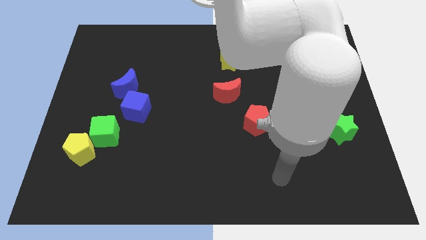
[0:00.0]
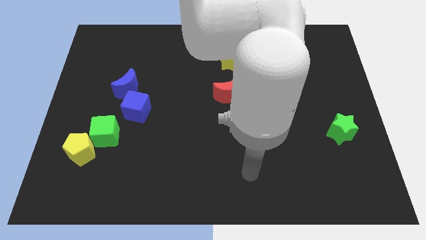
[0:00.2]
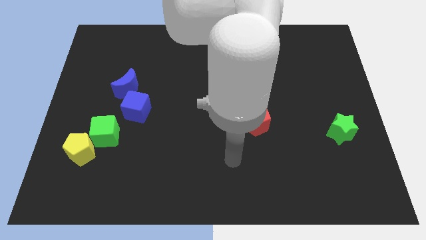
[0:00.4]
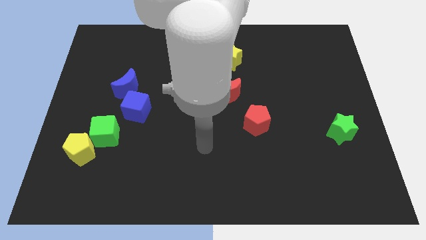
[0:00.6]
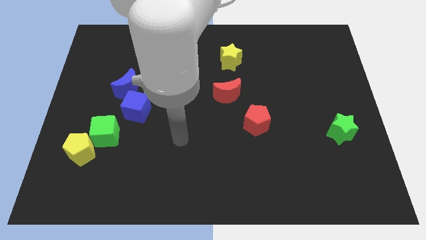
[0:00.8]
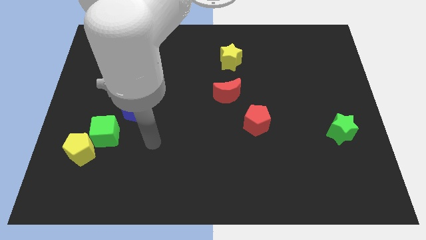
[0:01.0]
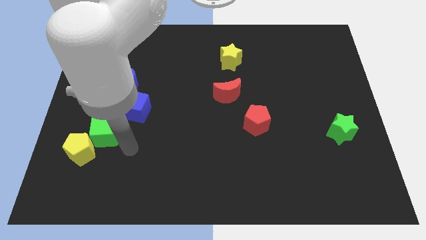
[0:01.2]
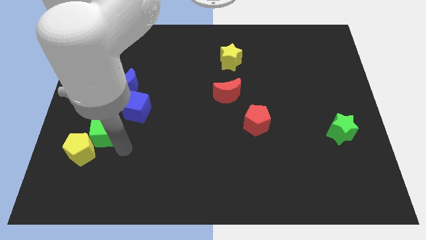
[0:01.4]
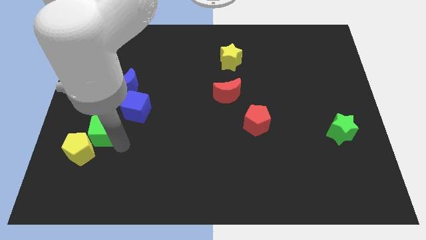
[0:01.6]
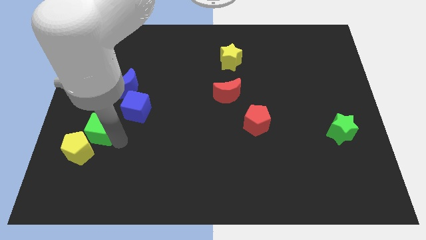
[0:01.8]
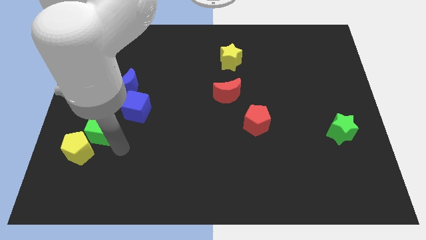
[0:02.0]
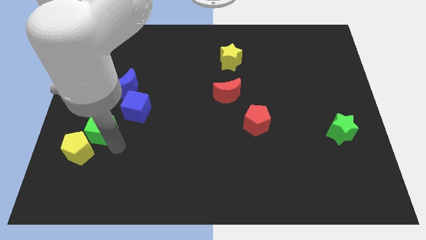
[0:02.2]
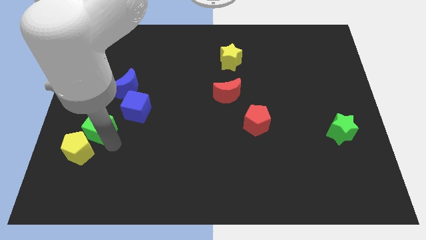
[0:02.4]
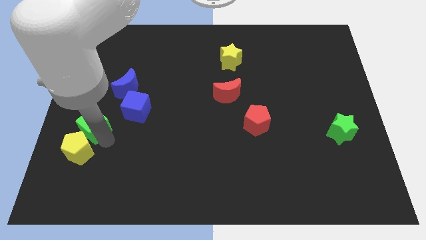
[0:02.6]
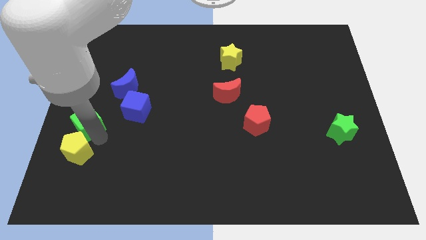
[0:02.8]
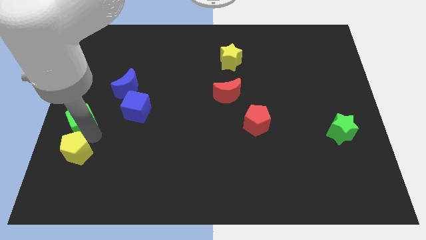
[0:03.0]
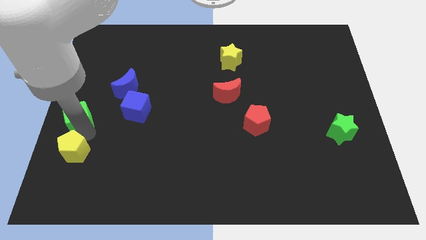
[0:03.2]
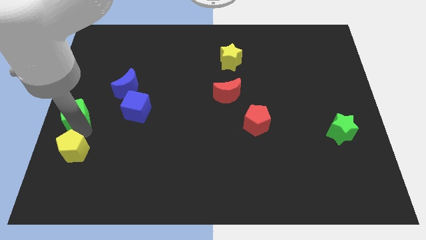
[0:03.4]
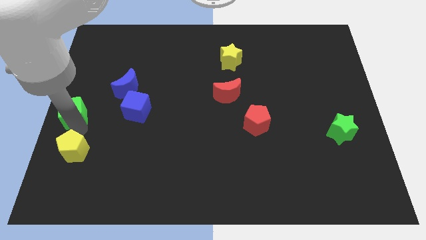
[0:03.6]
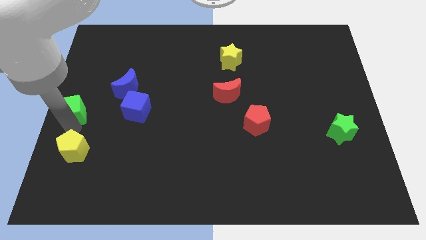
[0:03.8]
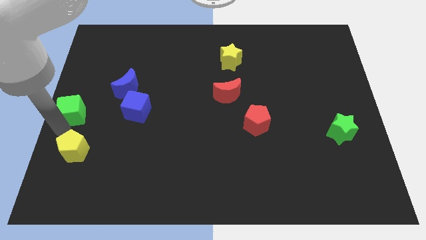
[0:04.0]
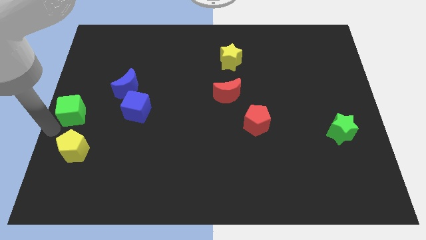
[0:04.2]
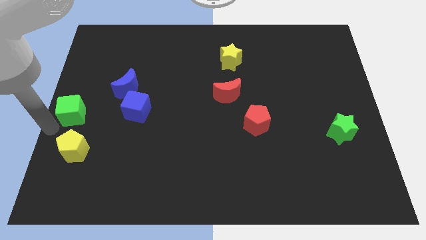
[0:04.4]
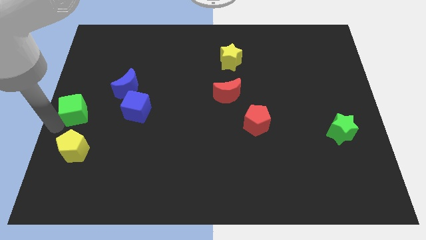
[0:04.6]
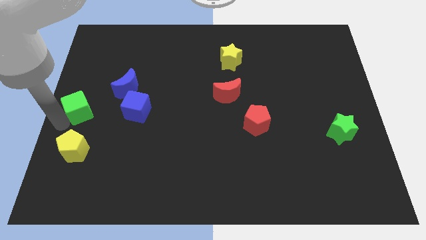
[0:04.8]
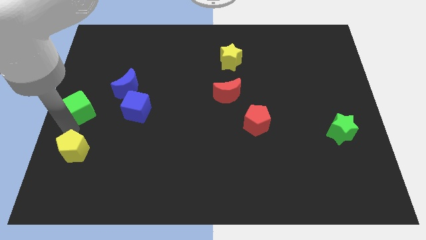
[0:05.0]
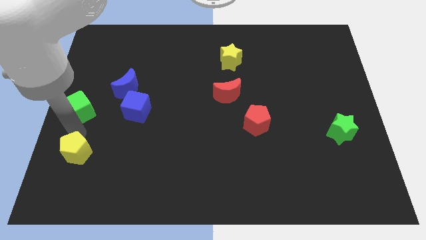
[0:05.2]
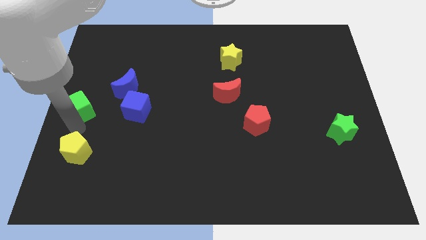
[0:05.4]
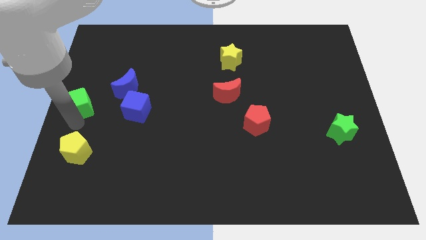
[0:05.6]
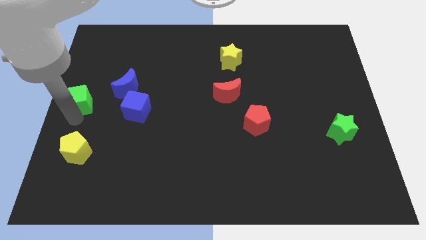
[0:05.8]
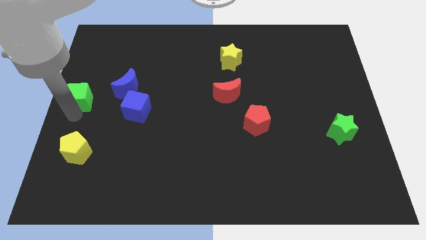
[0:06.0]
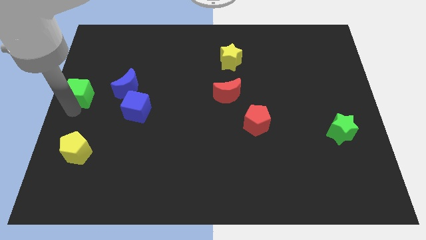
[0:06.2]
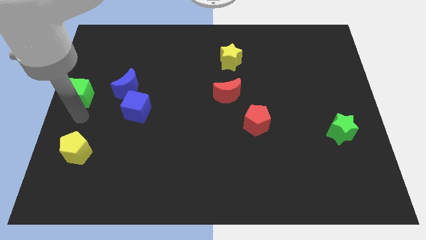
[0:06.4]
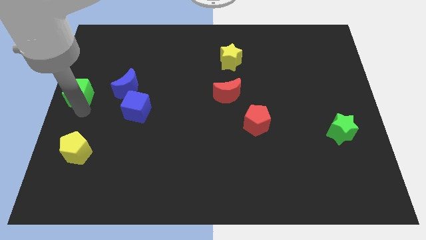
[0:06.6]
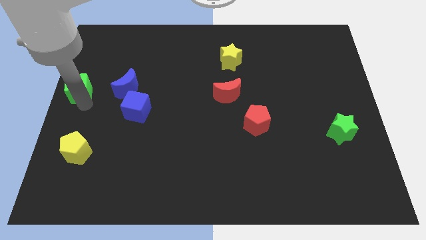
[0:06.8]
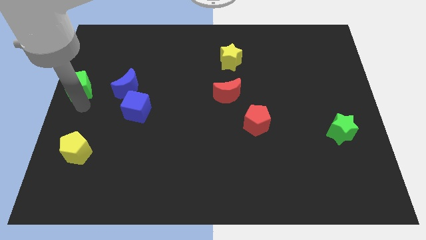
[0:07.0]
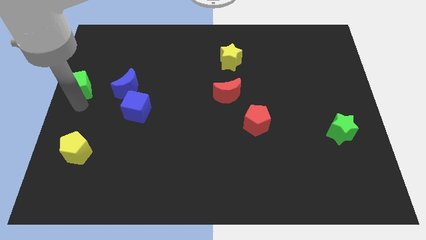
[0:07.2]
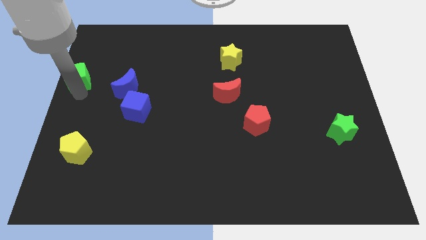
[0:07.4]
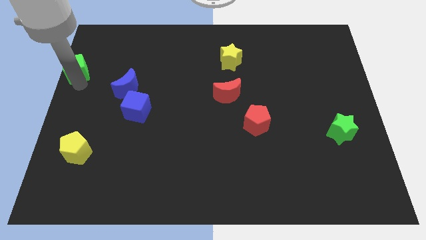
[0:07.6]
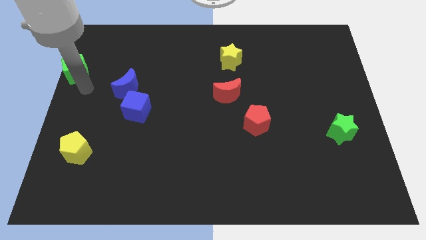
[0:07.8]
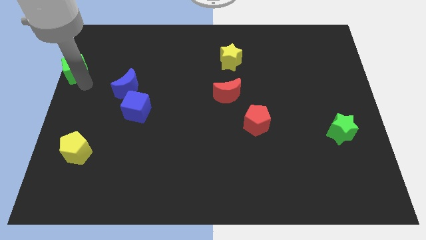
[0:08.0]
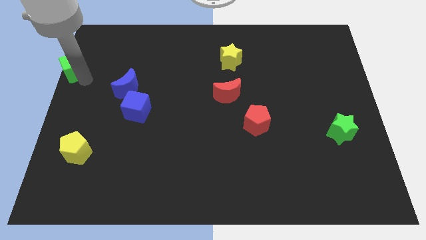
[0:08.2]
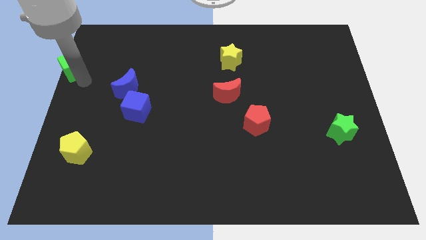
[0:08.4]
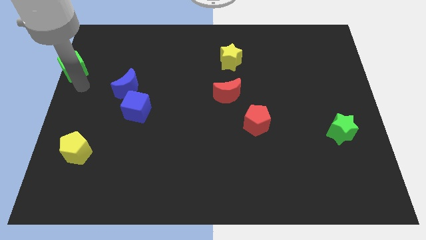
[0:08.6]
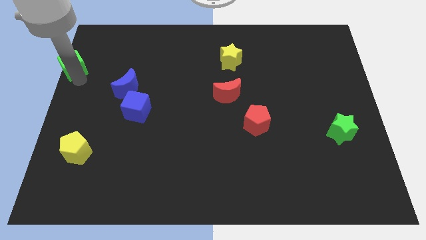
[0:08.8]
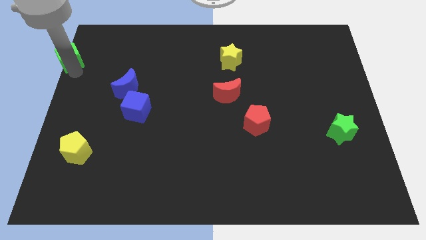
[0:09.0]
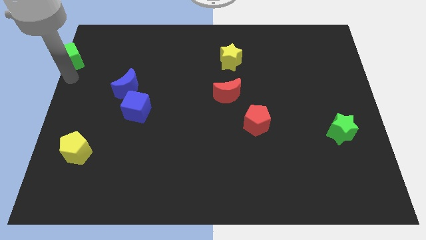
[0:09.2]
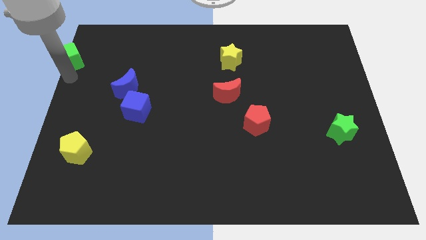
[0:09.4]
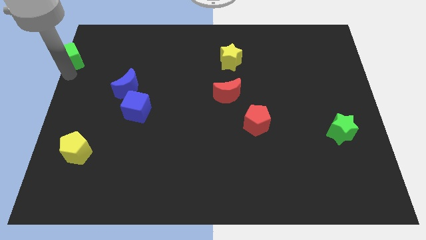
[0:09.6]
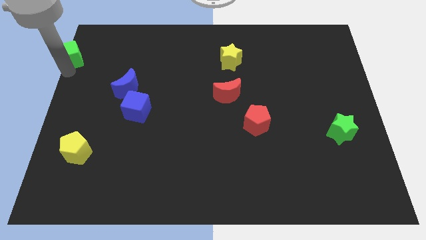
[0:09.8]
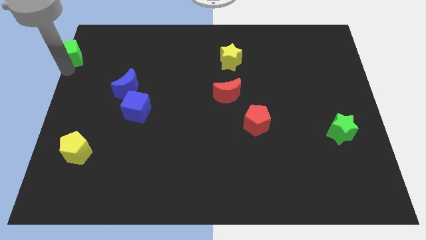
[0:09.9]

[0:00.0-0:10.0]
push the green cube to the top left corner

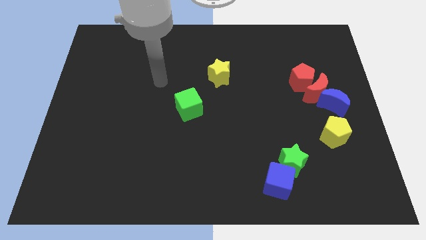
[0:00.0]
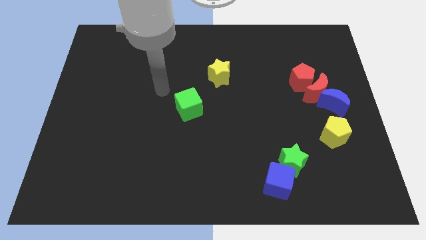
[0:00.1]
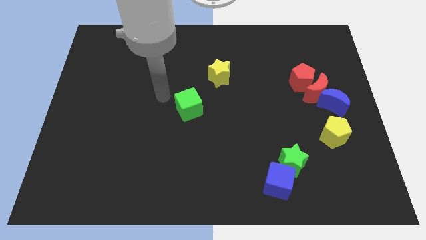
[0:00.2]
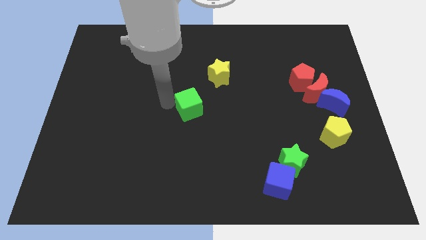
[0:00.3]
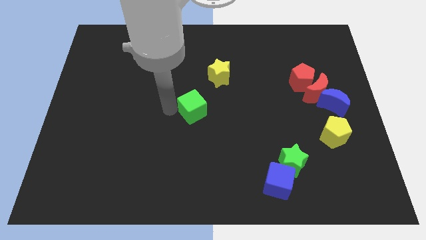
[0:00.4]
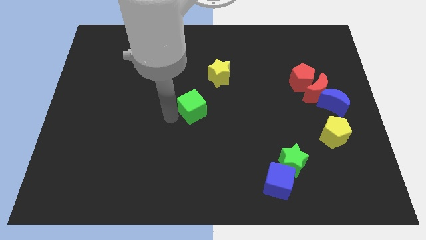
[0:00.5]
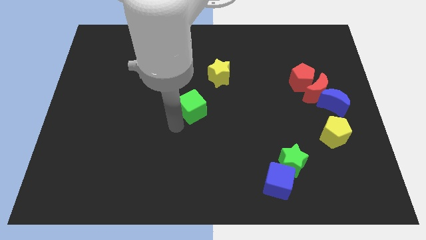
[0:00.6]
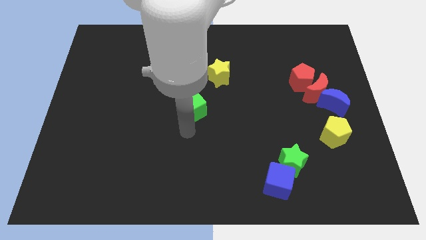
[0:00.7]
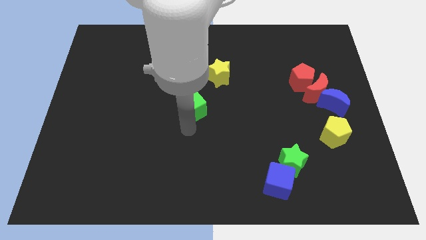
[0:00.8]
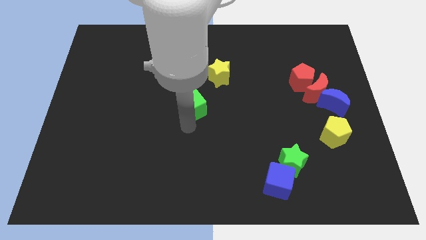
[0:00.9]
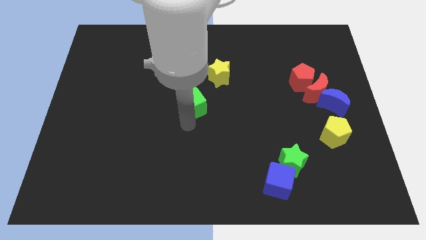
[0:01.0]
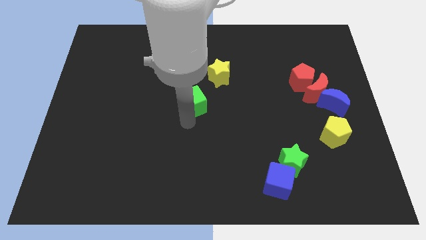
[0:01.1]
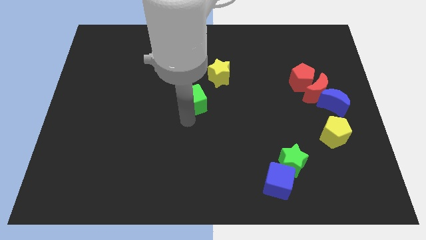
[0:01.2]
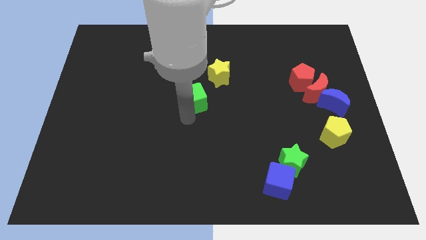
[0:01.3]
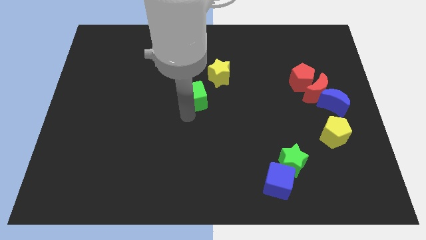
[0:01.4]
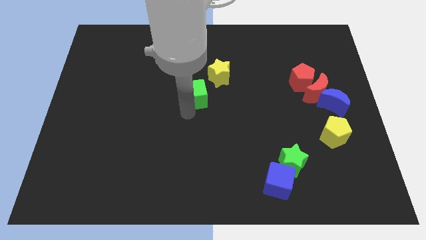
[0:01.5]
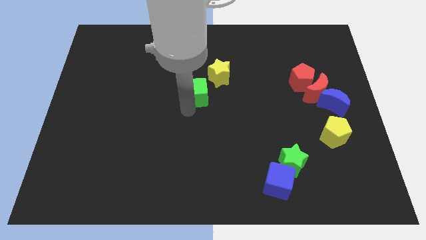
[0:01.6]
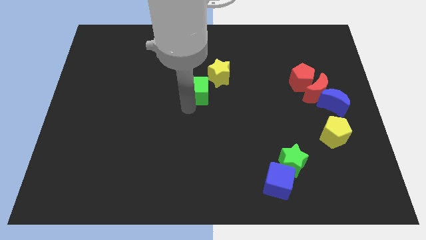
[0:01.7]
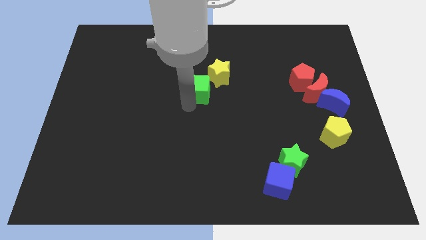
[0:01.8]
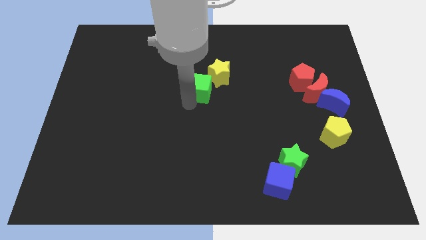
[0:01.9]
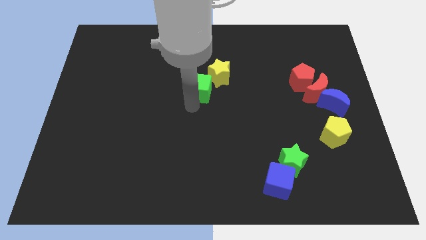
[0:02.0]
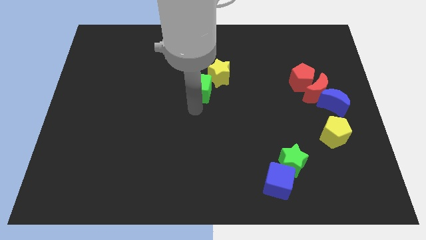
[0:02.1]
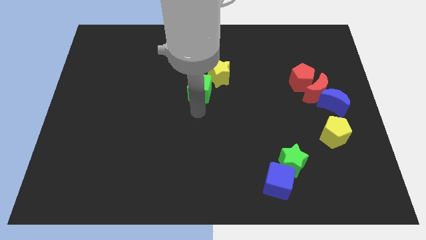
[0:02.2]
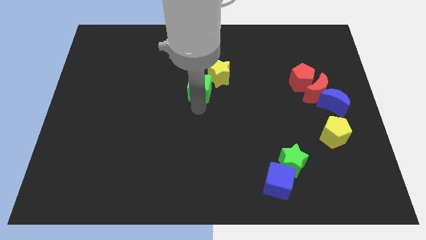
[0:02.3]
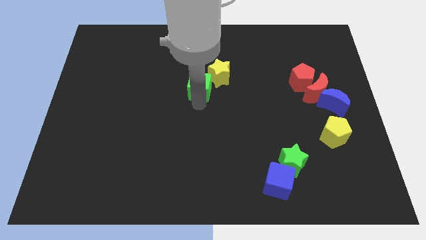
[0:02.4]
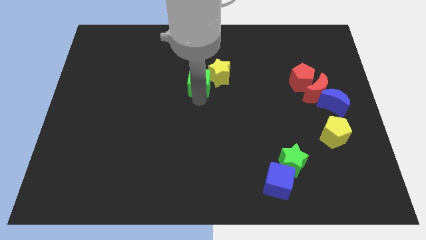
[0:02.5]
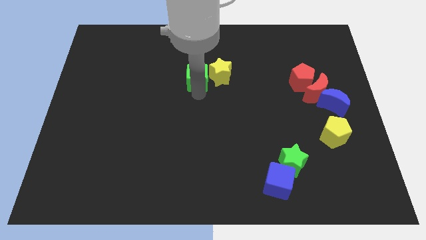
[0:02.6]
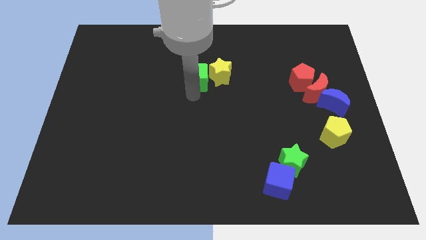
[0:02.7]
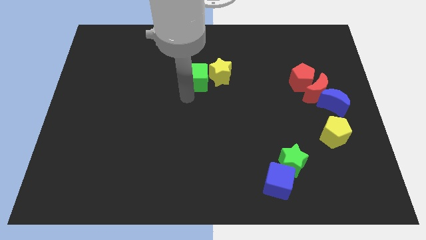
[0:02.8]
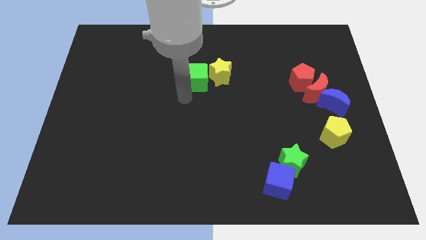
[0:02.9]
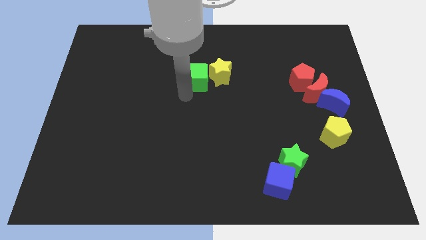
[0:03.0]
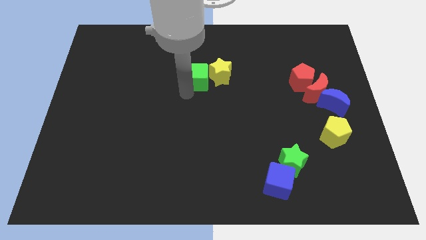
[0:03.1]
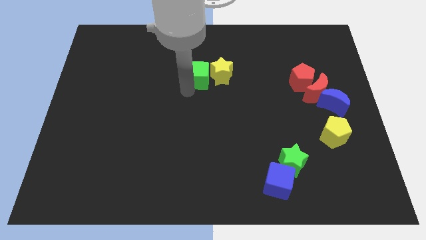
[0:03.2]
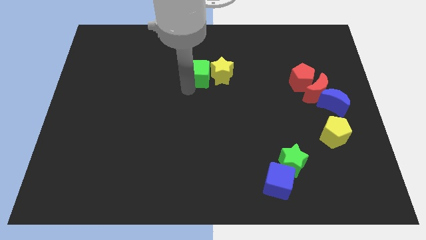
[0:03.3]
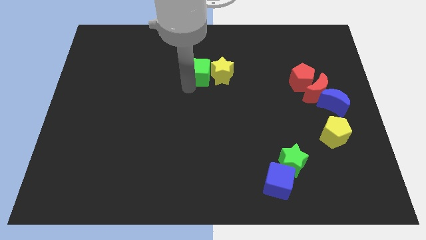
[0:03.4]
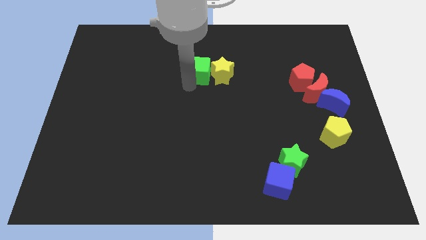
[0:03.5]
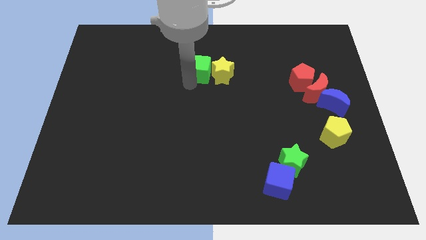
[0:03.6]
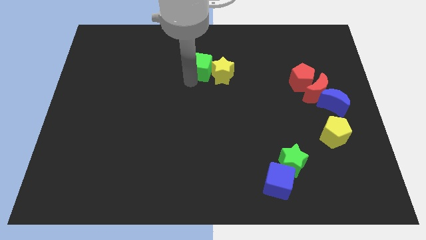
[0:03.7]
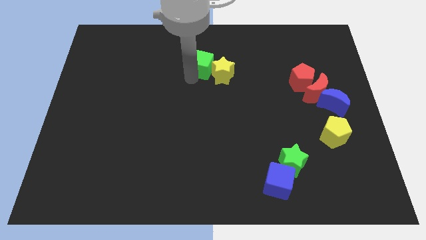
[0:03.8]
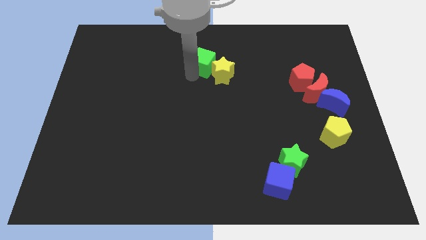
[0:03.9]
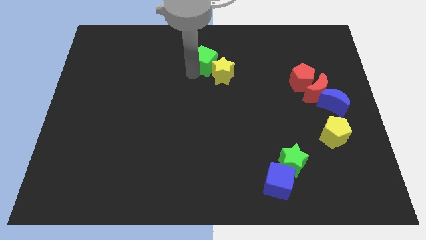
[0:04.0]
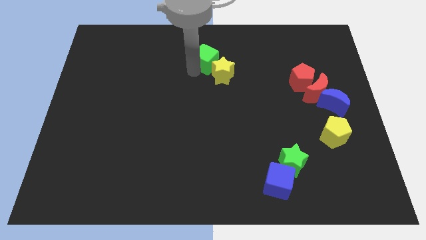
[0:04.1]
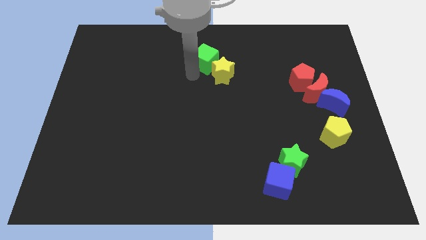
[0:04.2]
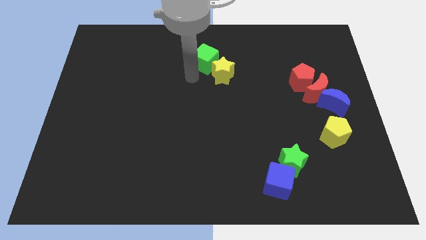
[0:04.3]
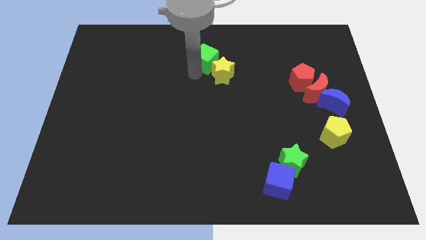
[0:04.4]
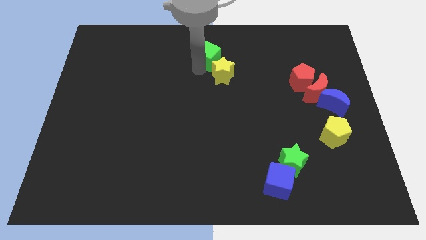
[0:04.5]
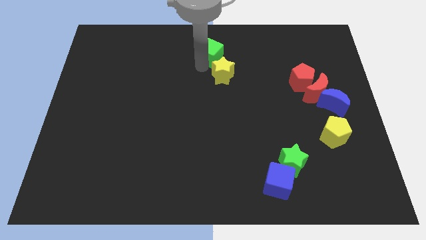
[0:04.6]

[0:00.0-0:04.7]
put the green cube to the top
